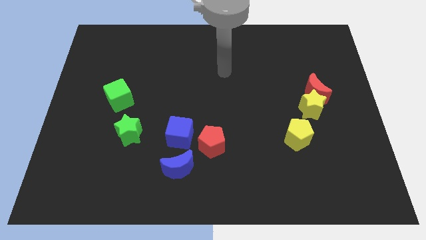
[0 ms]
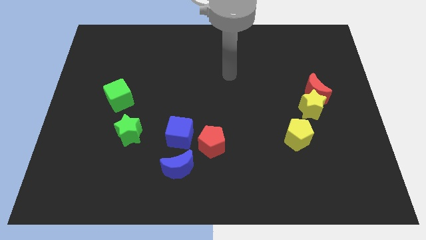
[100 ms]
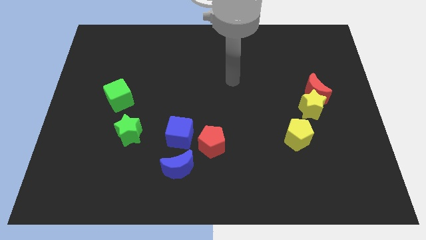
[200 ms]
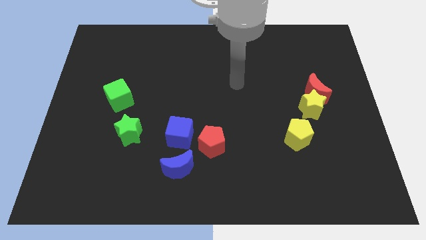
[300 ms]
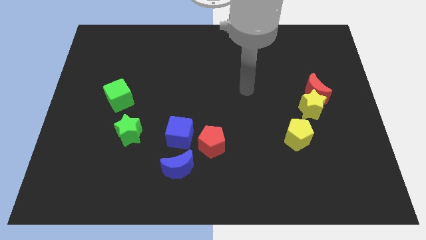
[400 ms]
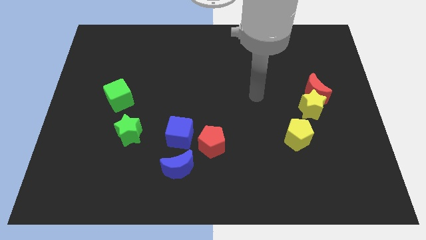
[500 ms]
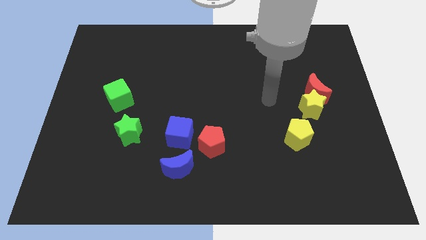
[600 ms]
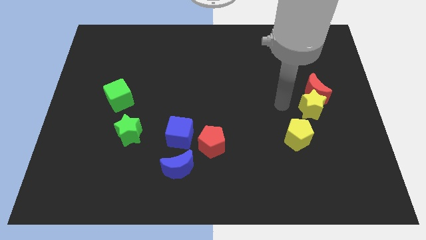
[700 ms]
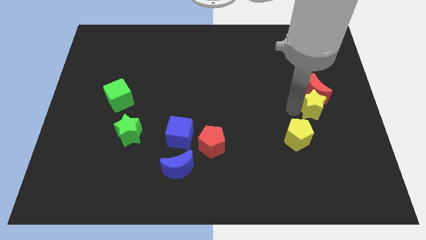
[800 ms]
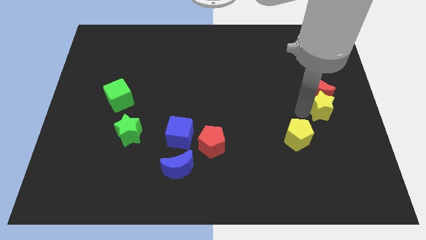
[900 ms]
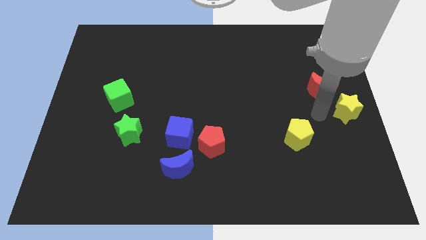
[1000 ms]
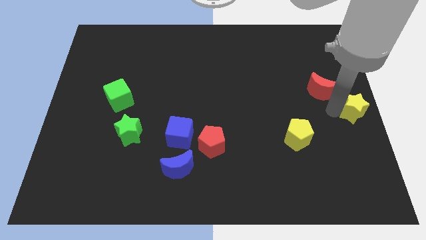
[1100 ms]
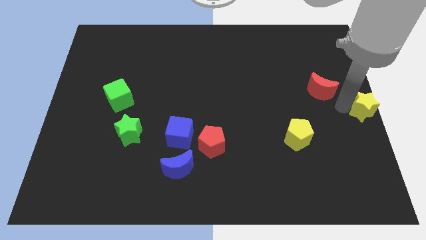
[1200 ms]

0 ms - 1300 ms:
pull the red moon apart from the yellow star

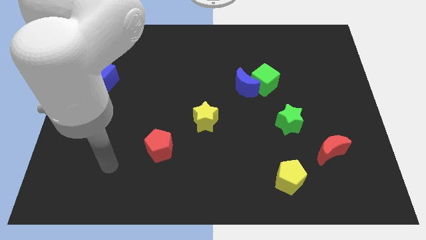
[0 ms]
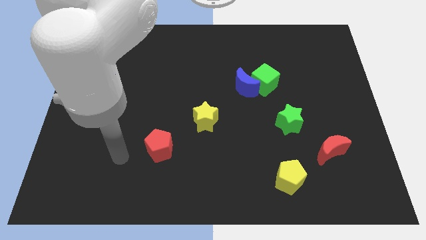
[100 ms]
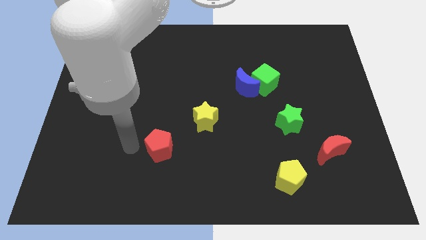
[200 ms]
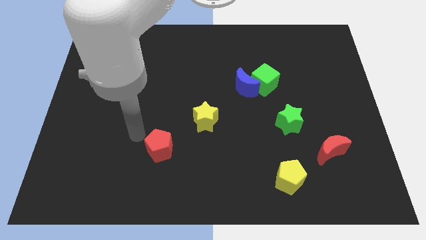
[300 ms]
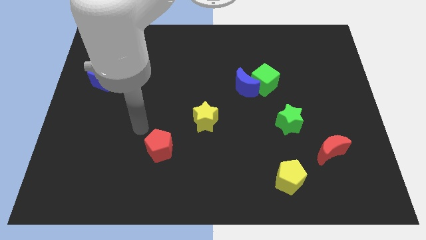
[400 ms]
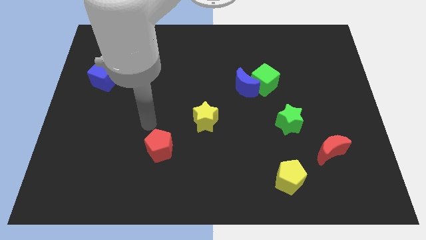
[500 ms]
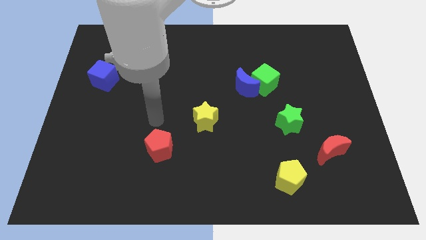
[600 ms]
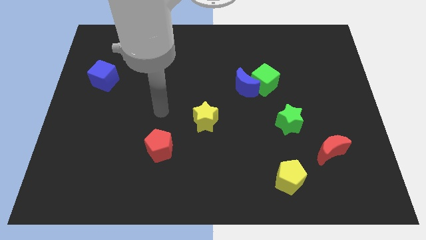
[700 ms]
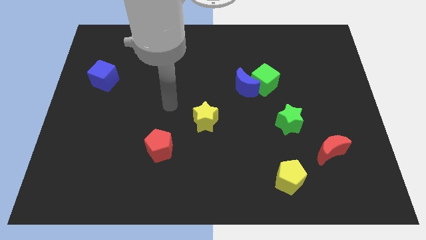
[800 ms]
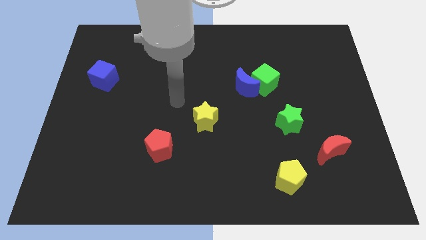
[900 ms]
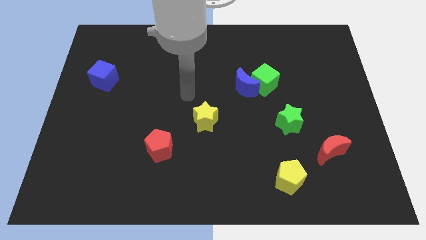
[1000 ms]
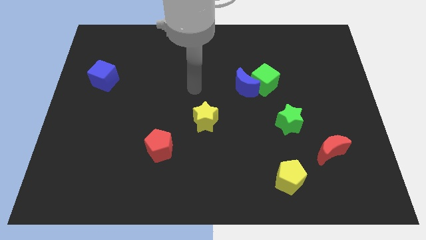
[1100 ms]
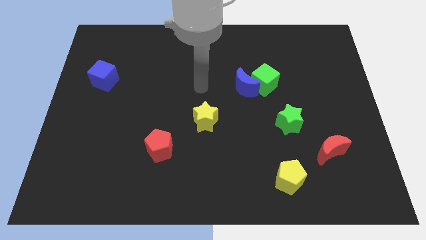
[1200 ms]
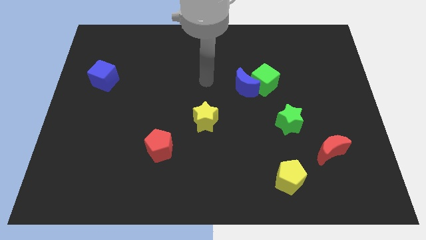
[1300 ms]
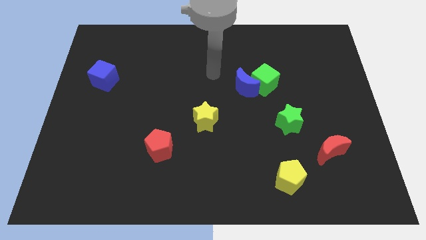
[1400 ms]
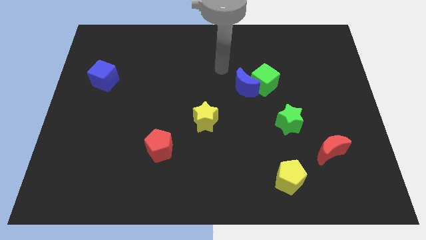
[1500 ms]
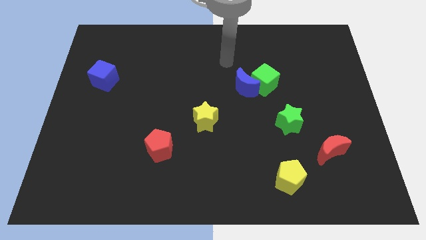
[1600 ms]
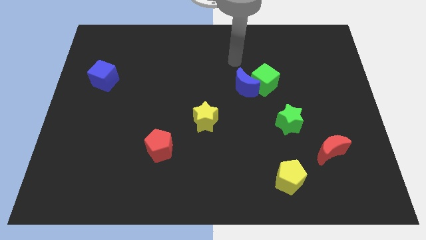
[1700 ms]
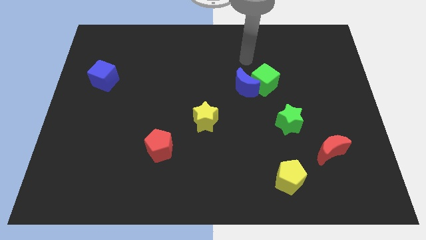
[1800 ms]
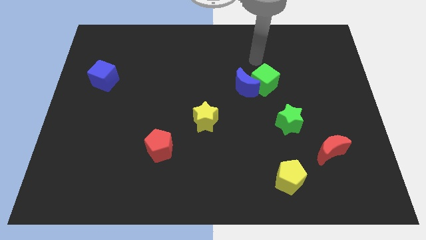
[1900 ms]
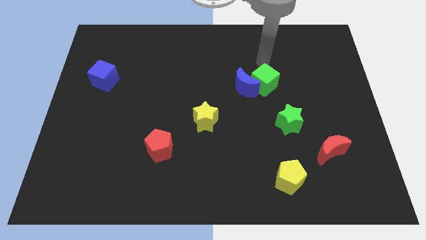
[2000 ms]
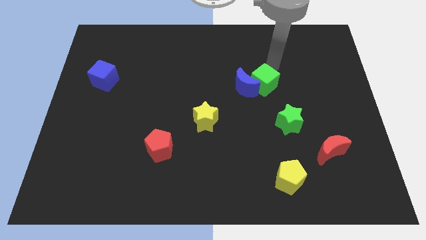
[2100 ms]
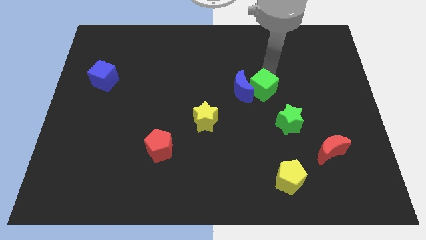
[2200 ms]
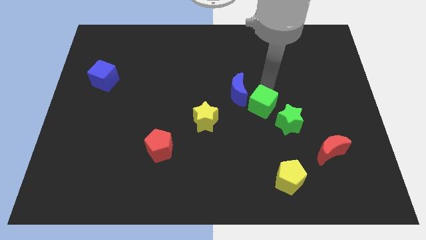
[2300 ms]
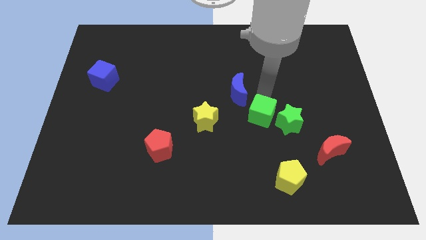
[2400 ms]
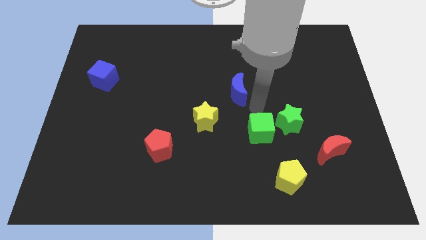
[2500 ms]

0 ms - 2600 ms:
separate the blue moon from the green cube

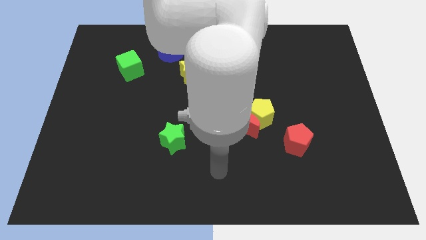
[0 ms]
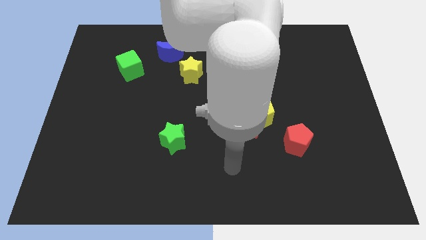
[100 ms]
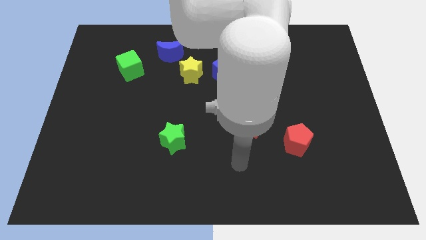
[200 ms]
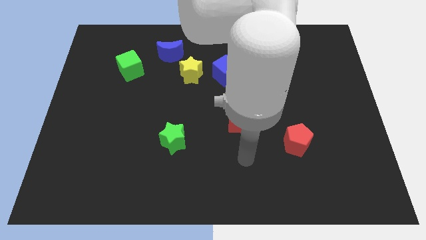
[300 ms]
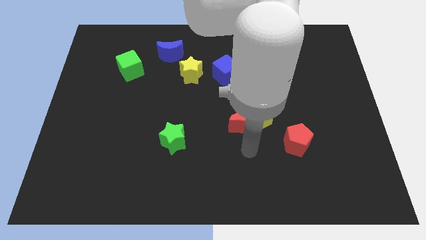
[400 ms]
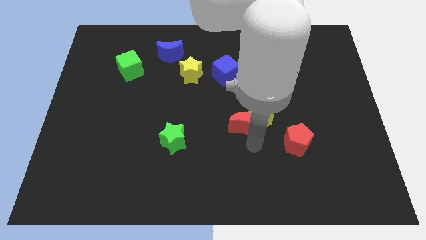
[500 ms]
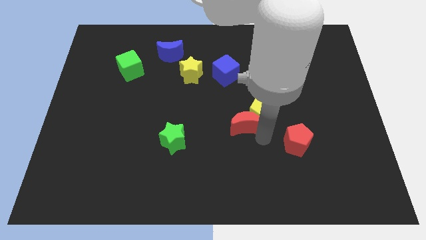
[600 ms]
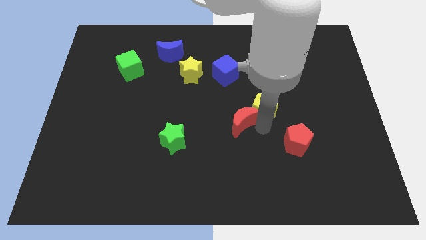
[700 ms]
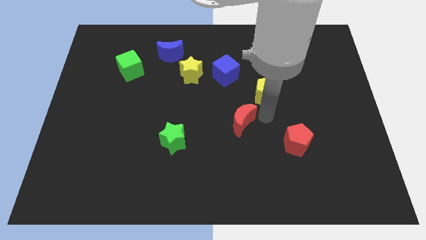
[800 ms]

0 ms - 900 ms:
separate the red moon from the yellow pentagon

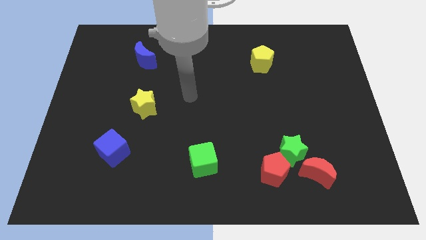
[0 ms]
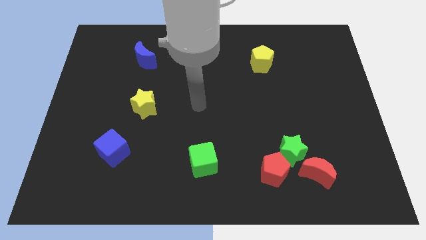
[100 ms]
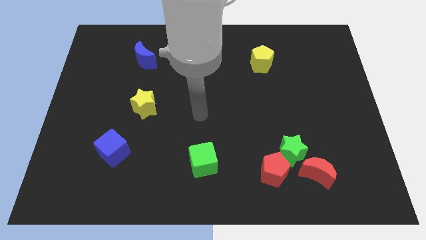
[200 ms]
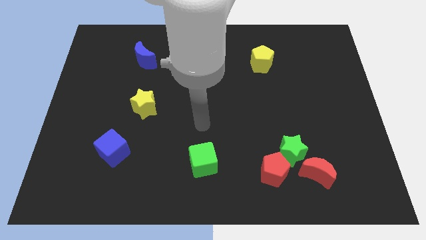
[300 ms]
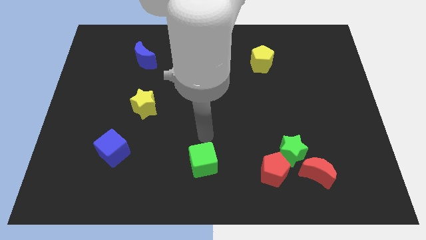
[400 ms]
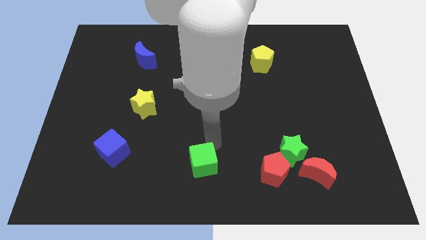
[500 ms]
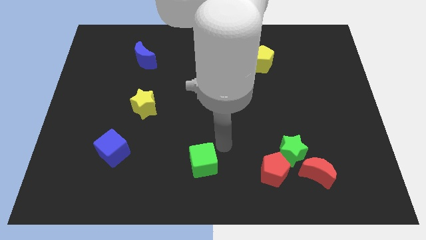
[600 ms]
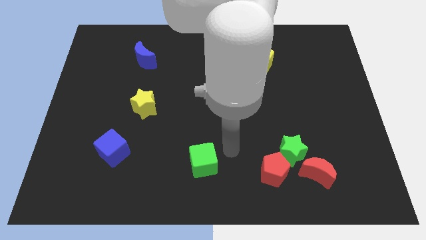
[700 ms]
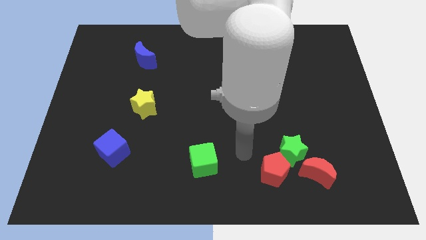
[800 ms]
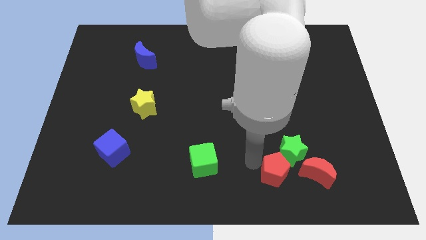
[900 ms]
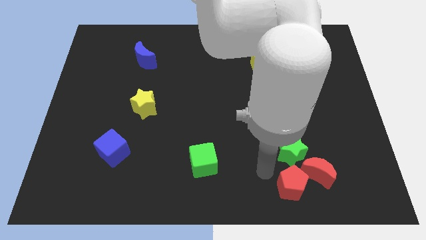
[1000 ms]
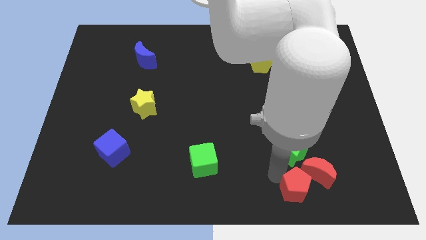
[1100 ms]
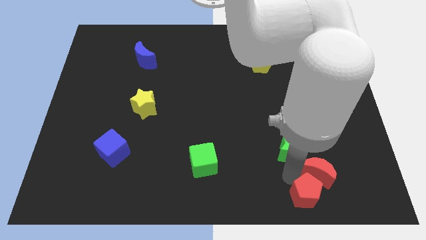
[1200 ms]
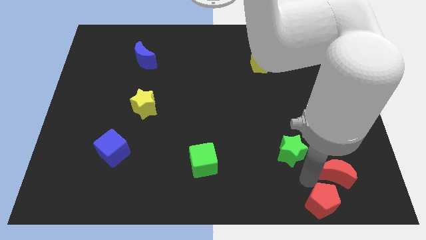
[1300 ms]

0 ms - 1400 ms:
move the green star away from the red pentagon and red moon

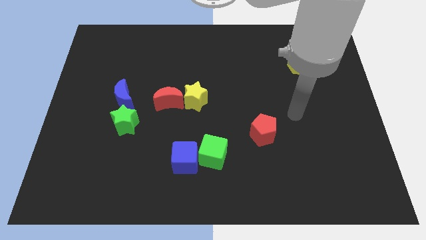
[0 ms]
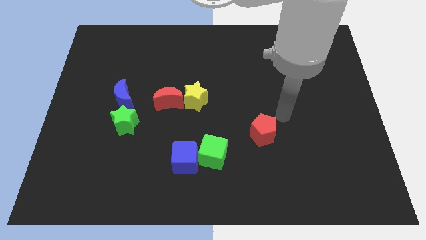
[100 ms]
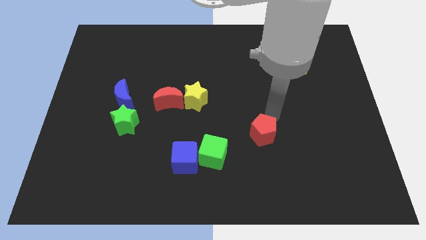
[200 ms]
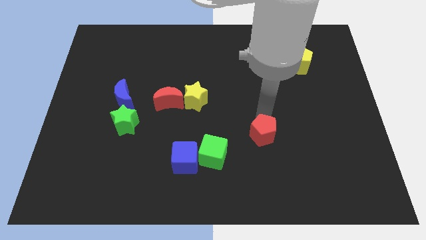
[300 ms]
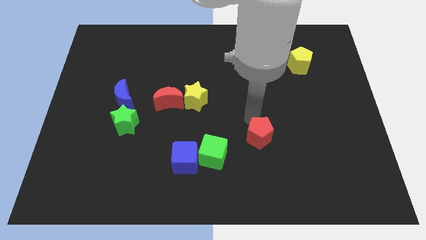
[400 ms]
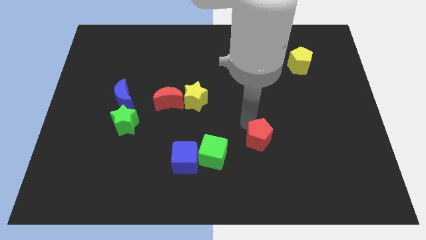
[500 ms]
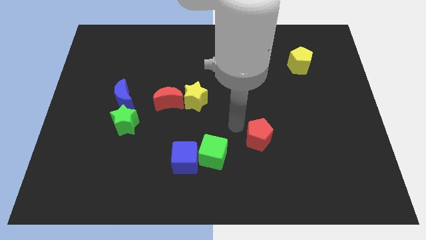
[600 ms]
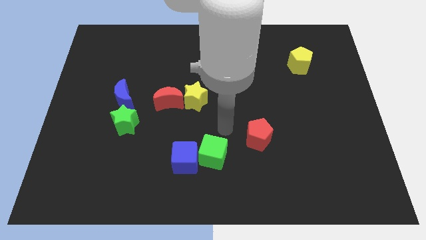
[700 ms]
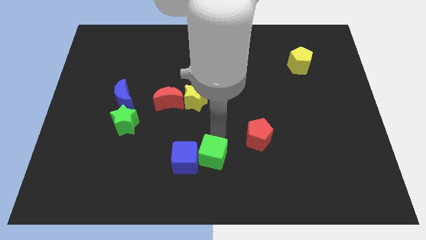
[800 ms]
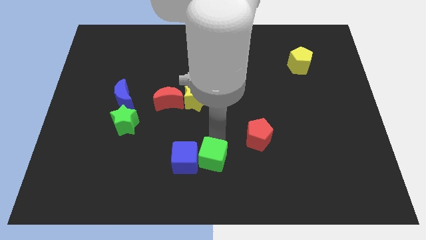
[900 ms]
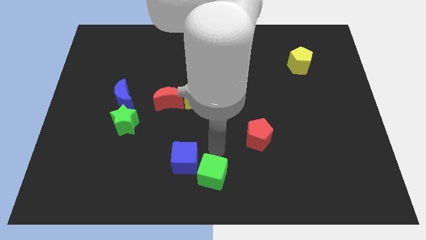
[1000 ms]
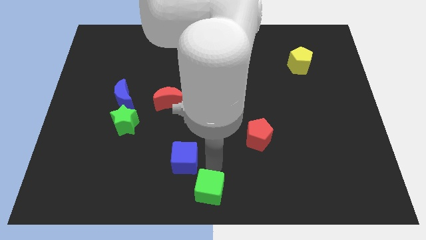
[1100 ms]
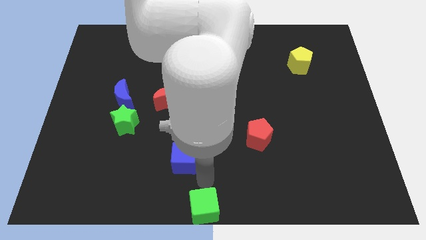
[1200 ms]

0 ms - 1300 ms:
move the blue cube away from the green cube

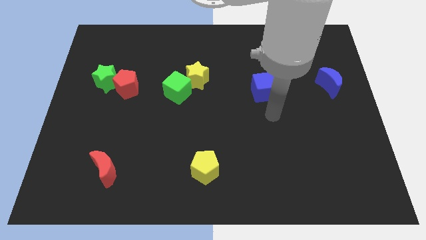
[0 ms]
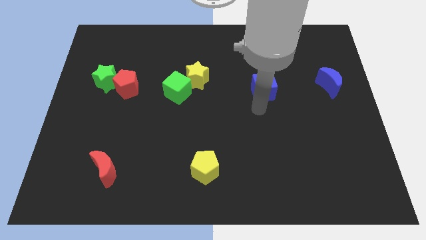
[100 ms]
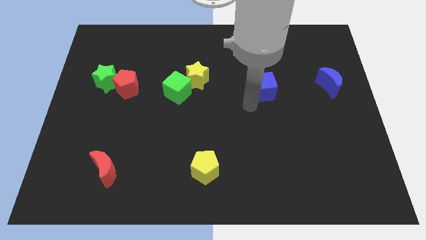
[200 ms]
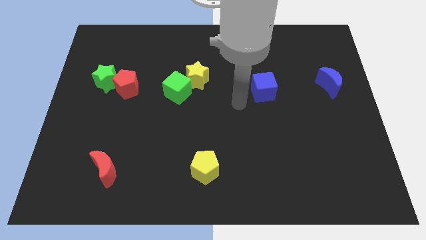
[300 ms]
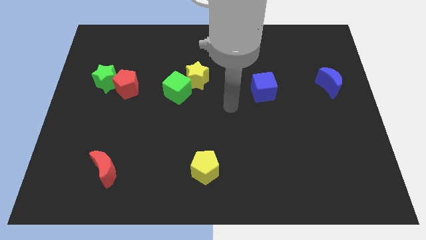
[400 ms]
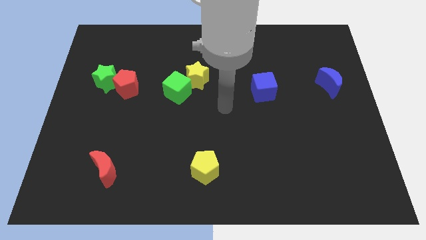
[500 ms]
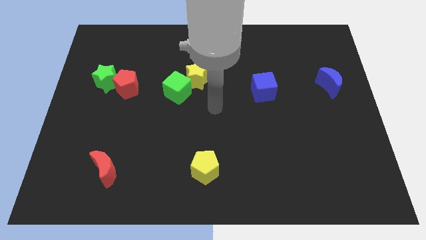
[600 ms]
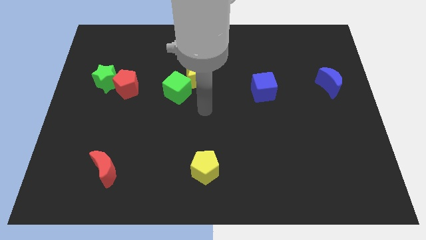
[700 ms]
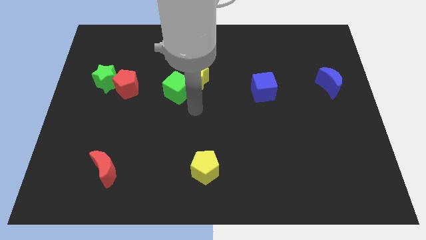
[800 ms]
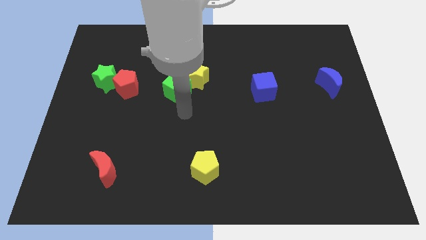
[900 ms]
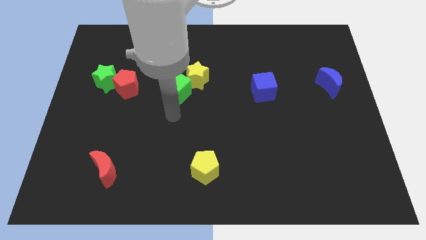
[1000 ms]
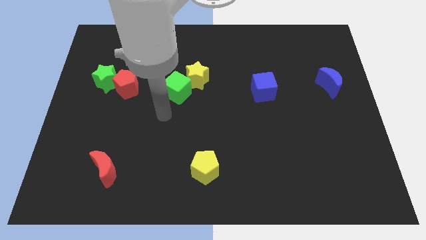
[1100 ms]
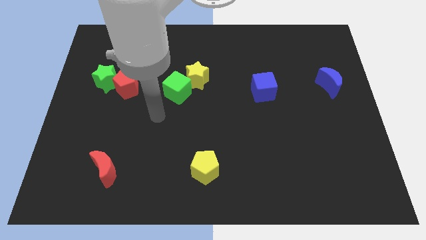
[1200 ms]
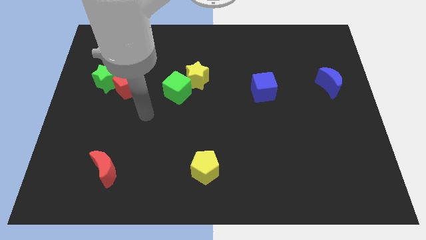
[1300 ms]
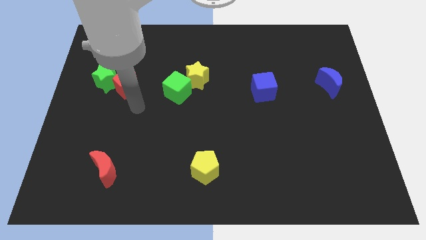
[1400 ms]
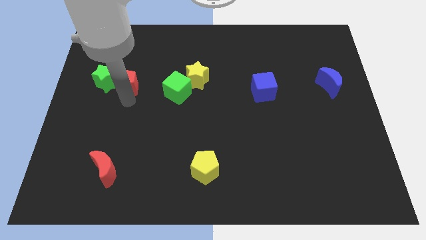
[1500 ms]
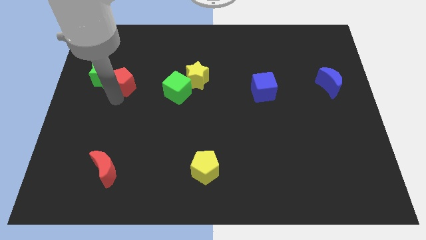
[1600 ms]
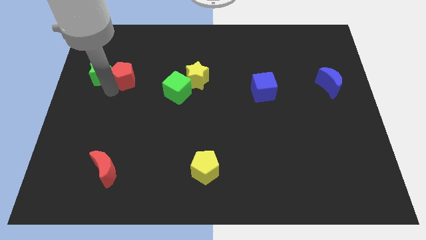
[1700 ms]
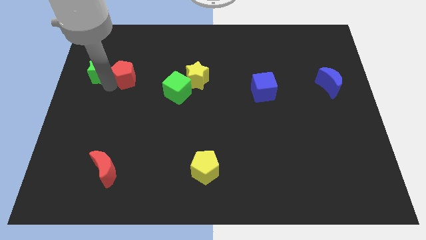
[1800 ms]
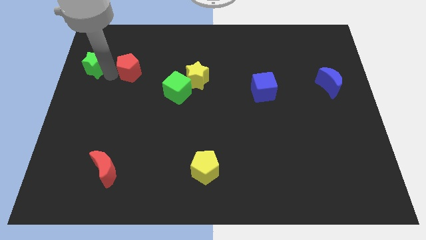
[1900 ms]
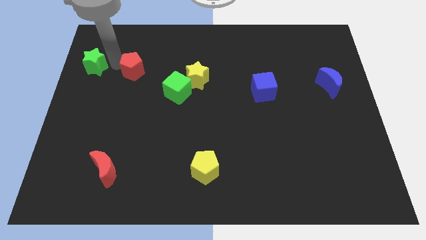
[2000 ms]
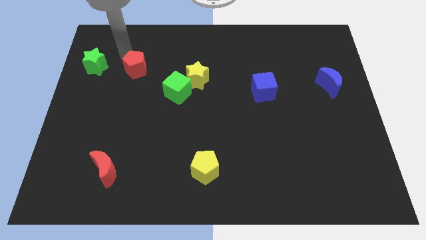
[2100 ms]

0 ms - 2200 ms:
separate the red pentagon from the green star
